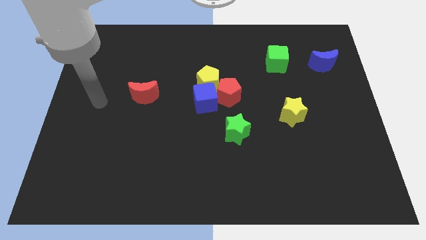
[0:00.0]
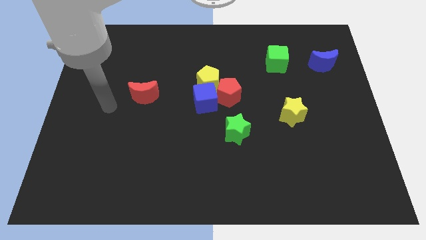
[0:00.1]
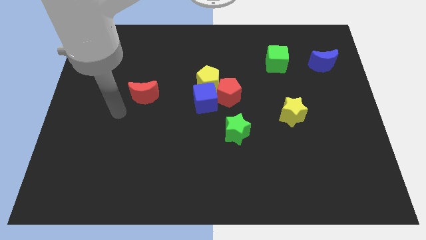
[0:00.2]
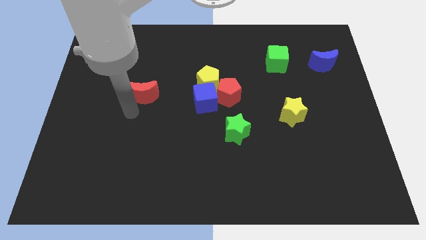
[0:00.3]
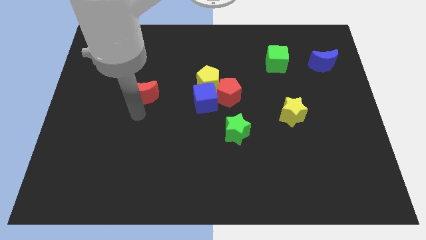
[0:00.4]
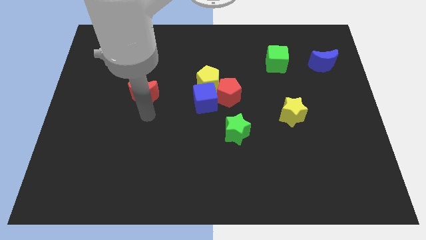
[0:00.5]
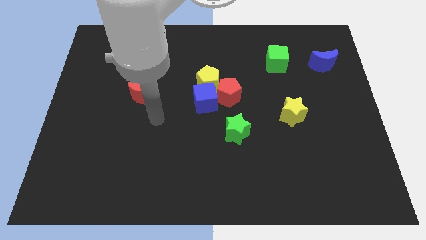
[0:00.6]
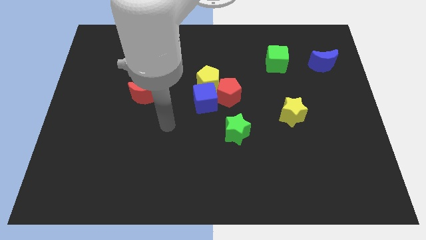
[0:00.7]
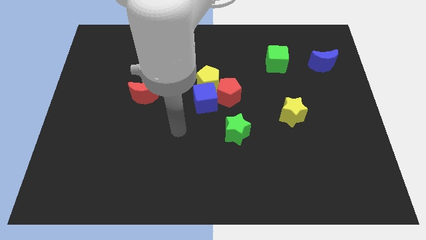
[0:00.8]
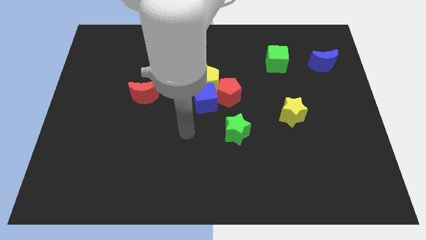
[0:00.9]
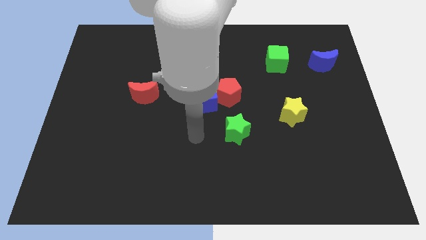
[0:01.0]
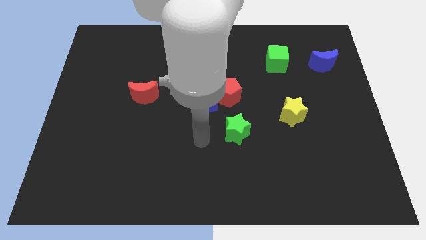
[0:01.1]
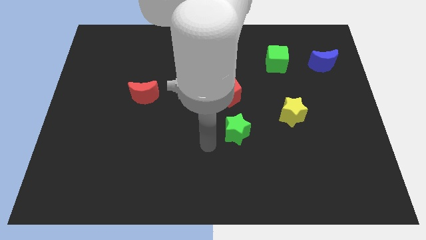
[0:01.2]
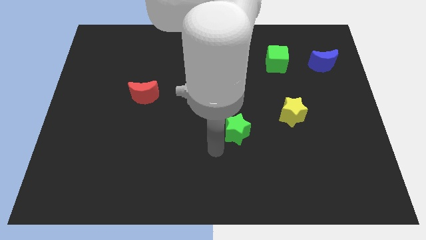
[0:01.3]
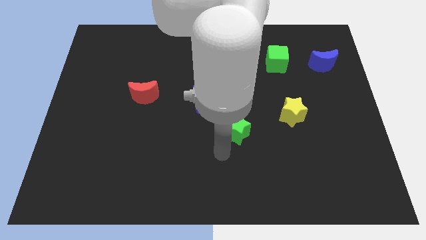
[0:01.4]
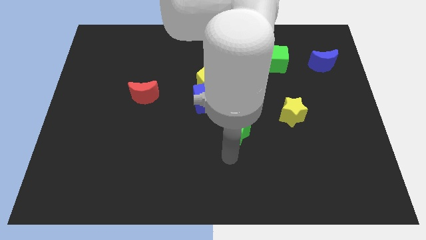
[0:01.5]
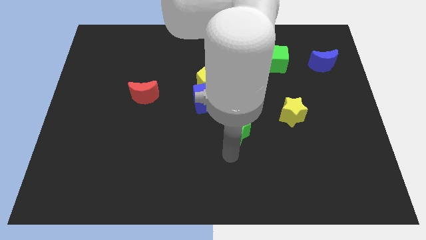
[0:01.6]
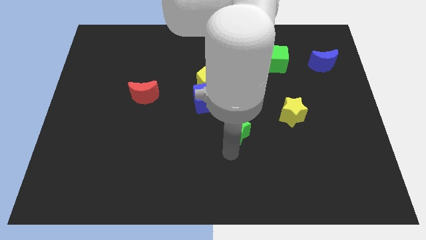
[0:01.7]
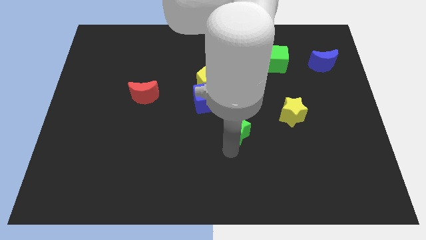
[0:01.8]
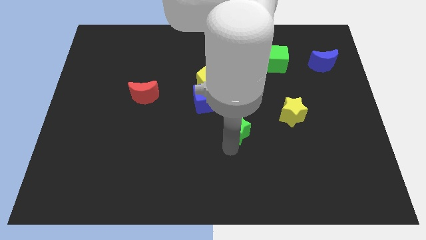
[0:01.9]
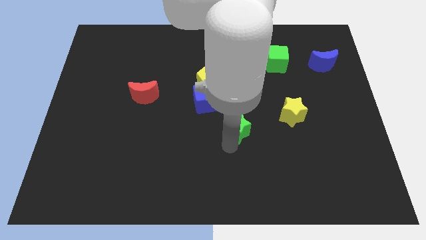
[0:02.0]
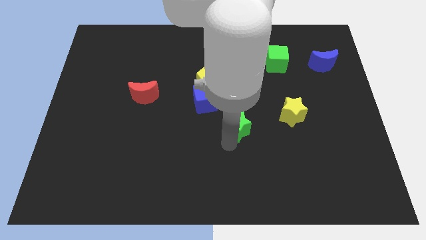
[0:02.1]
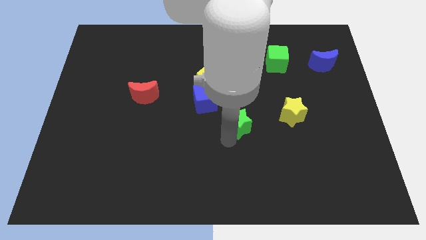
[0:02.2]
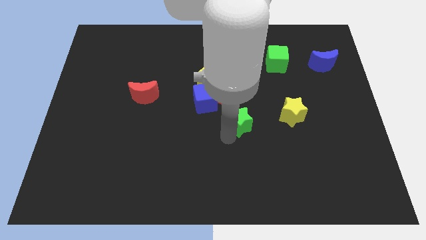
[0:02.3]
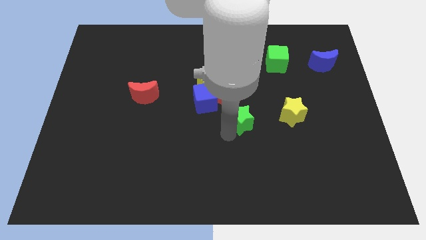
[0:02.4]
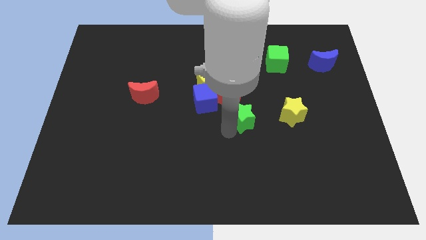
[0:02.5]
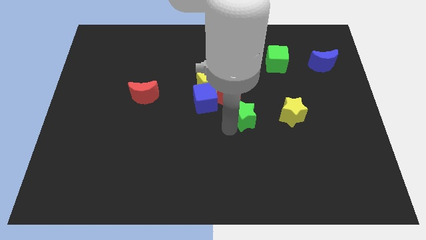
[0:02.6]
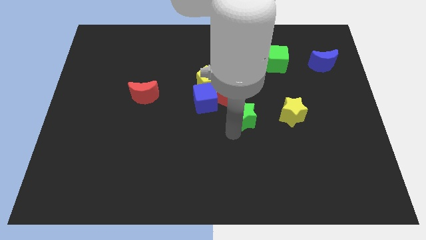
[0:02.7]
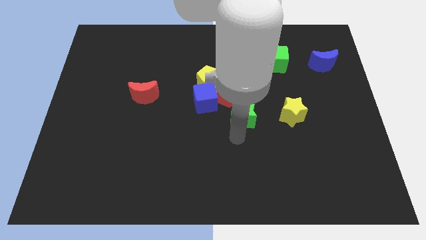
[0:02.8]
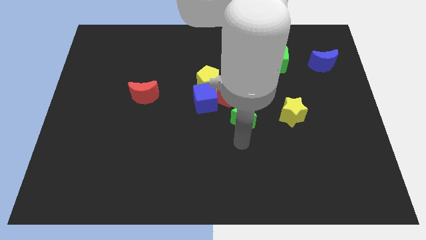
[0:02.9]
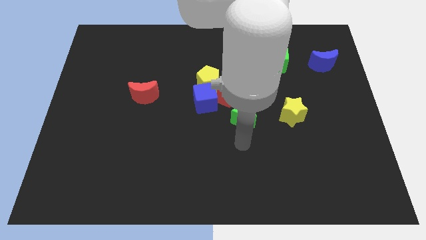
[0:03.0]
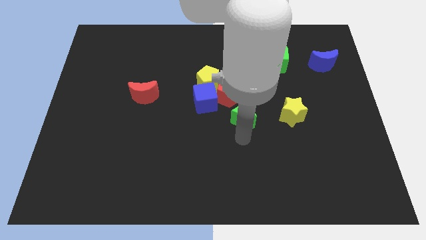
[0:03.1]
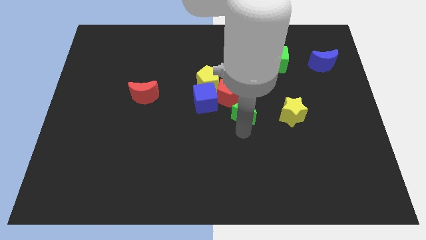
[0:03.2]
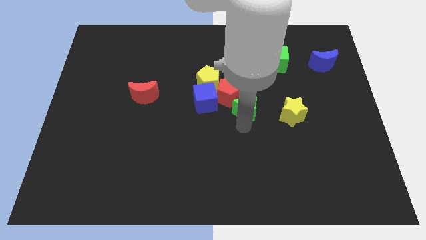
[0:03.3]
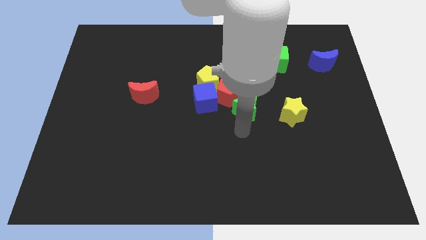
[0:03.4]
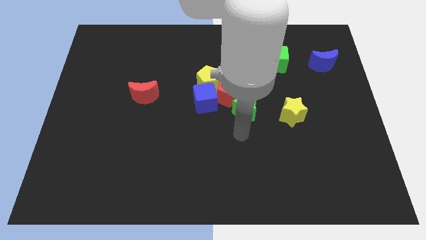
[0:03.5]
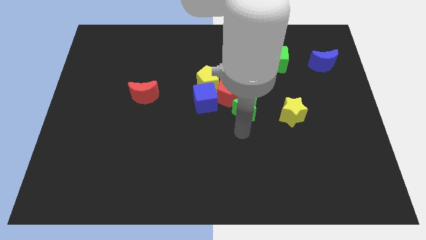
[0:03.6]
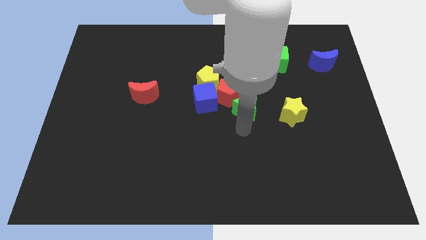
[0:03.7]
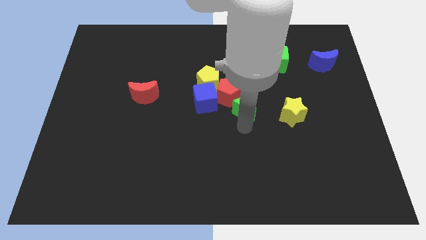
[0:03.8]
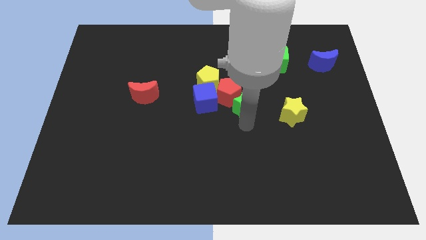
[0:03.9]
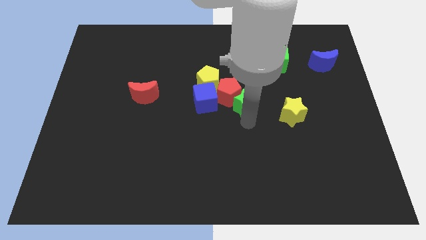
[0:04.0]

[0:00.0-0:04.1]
move the green star somewhat up

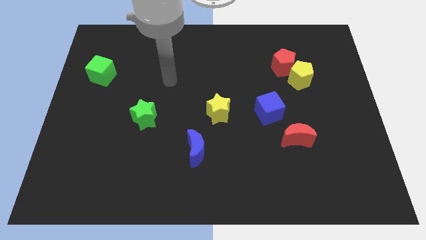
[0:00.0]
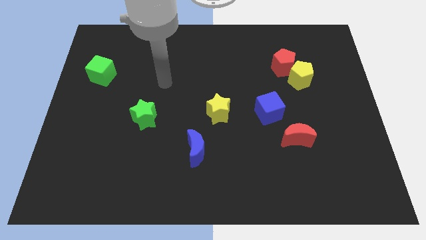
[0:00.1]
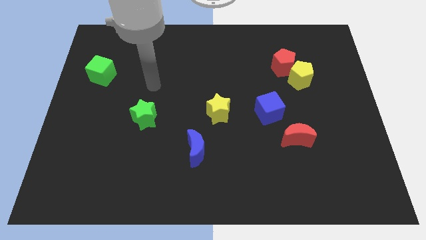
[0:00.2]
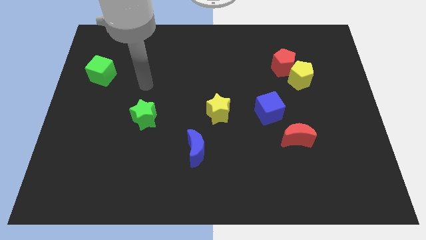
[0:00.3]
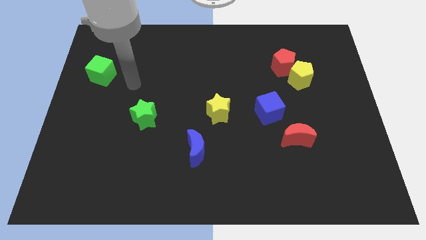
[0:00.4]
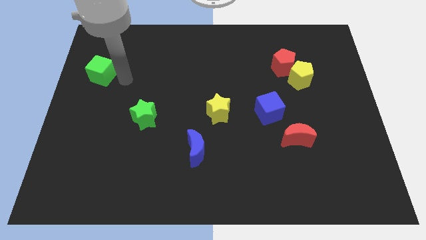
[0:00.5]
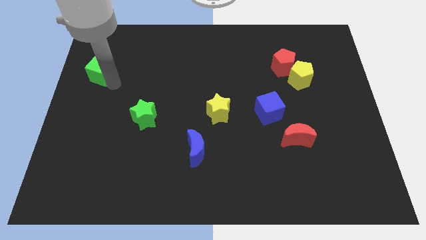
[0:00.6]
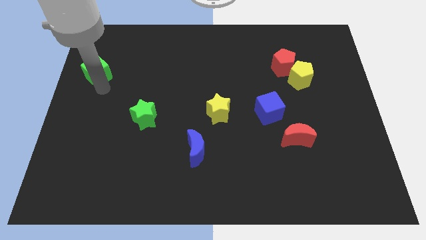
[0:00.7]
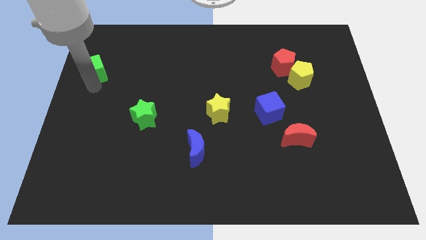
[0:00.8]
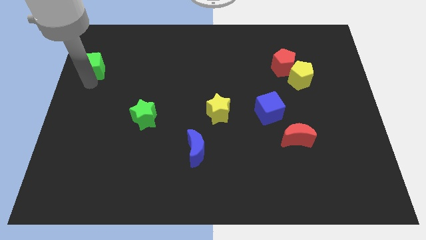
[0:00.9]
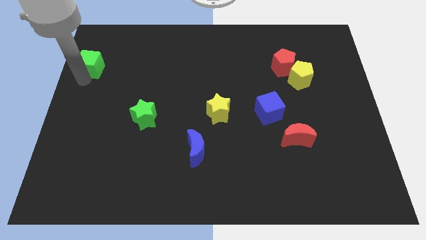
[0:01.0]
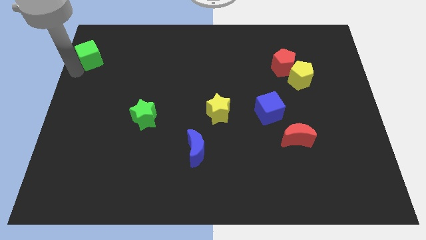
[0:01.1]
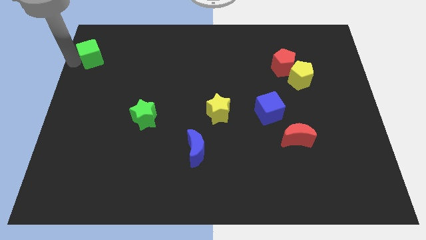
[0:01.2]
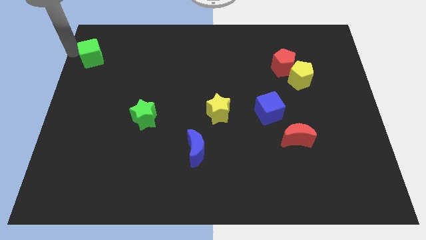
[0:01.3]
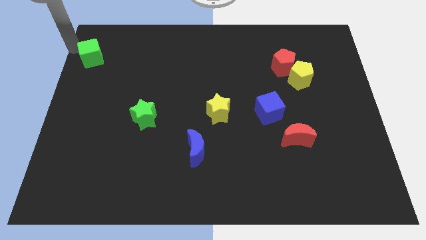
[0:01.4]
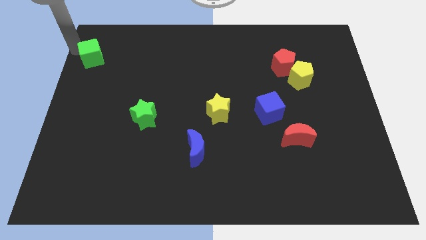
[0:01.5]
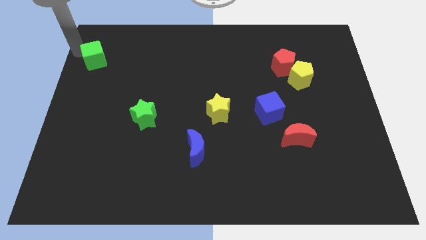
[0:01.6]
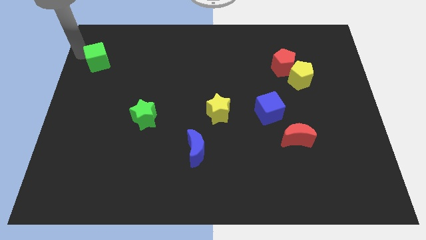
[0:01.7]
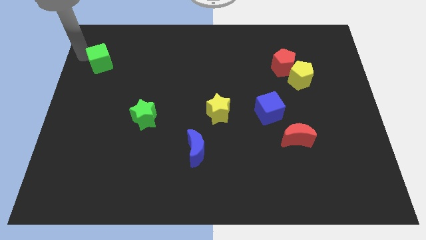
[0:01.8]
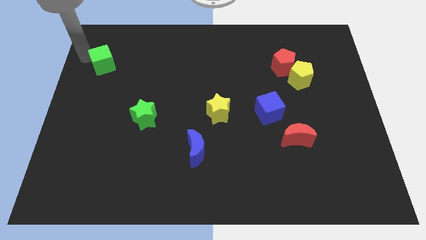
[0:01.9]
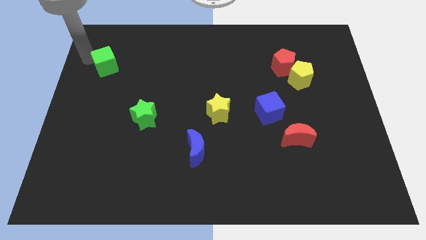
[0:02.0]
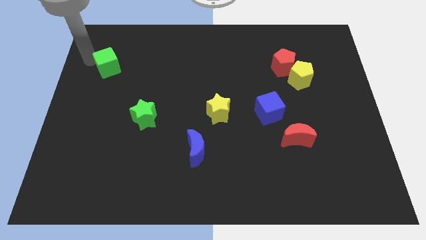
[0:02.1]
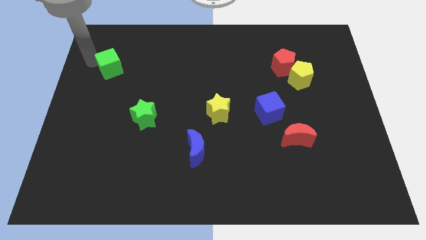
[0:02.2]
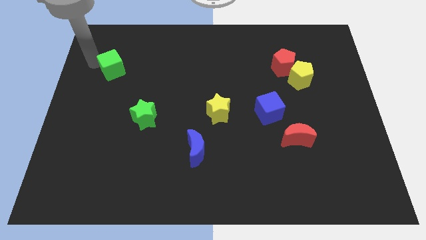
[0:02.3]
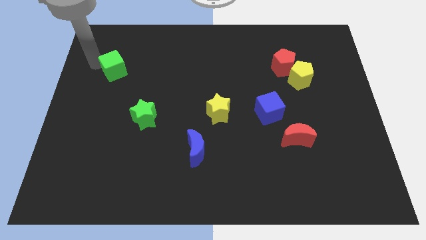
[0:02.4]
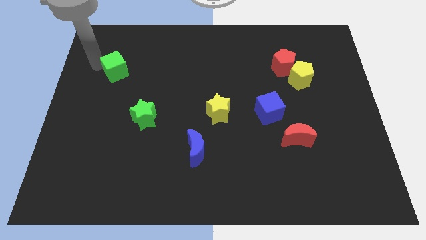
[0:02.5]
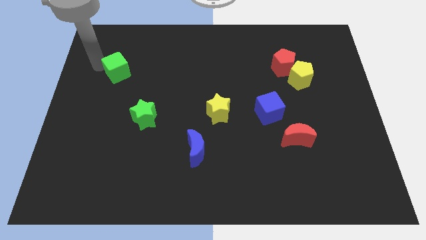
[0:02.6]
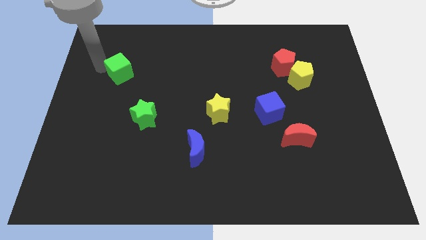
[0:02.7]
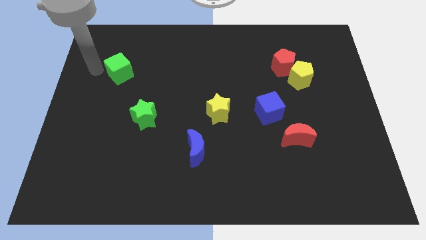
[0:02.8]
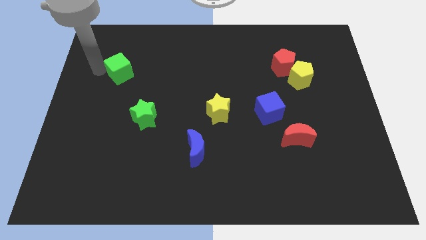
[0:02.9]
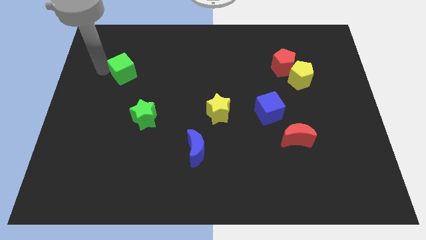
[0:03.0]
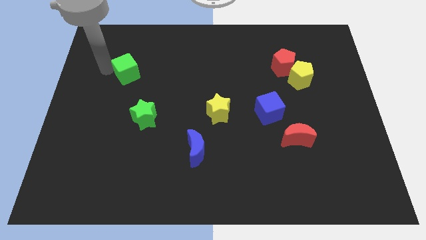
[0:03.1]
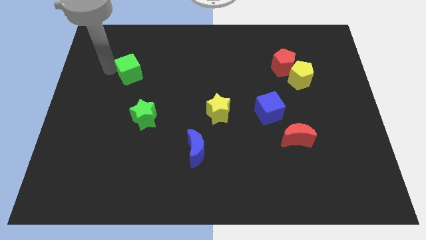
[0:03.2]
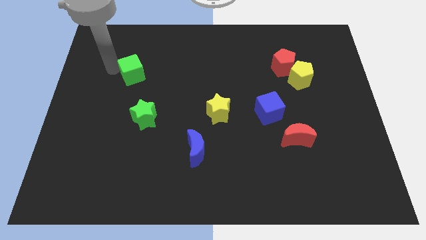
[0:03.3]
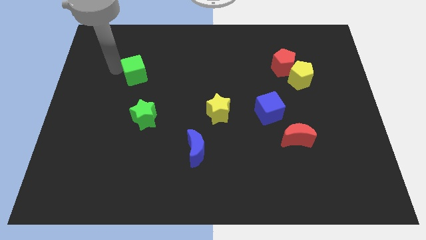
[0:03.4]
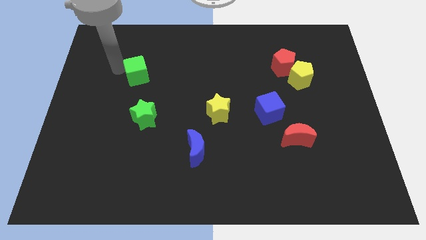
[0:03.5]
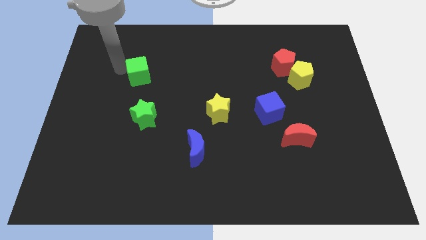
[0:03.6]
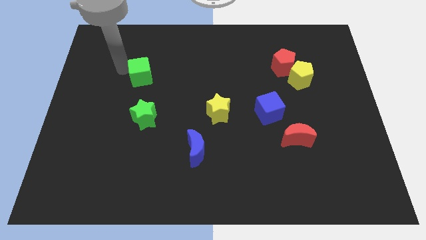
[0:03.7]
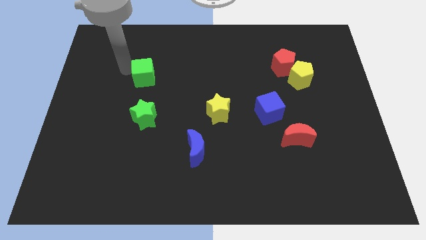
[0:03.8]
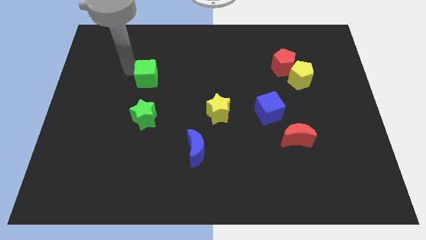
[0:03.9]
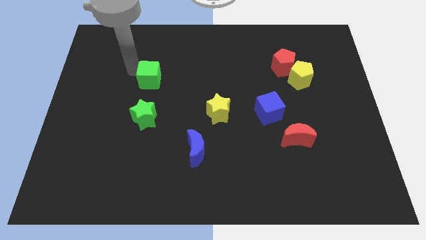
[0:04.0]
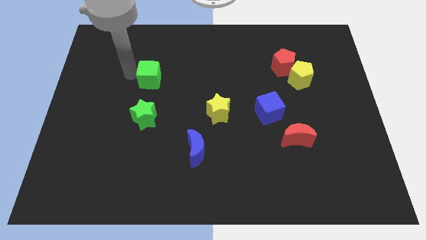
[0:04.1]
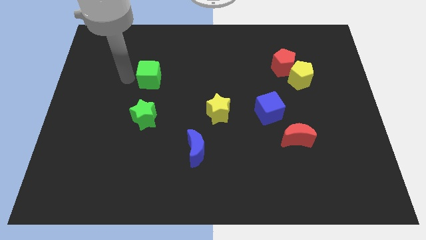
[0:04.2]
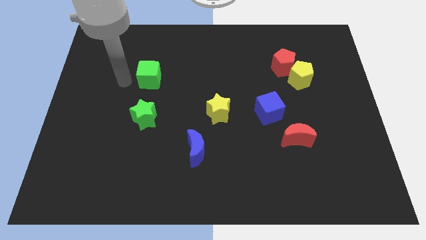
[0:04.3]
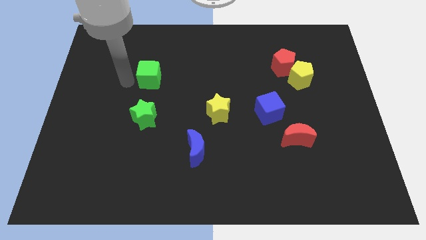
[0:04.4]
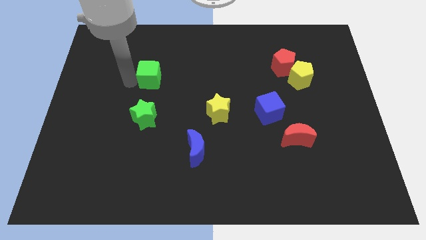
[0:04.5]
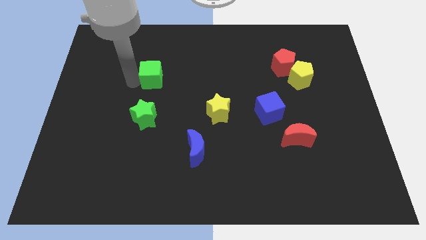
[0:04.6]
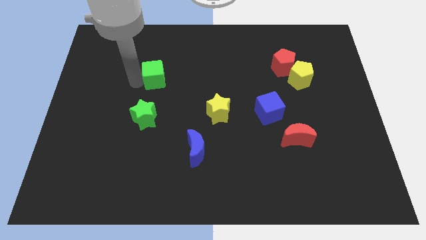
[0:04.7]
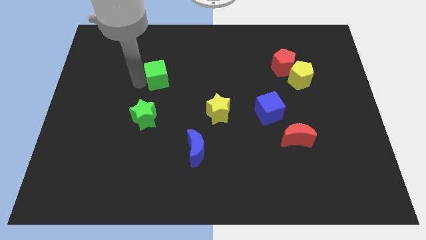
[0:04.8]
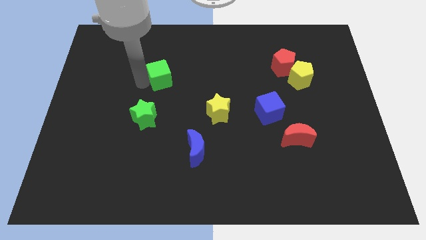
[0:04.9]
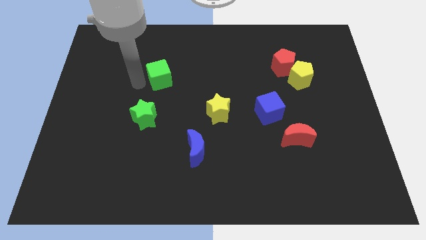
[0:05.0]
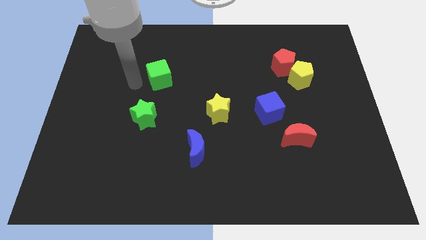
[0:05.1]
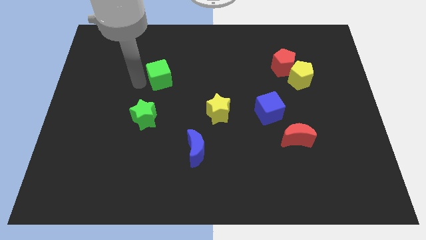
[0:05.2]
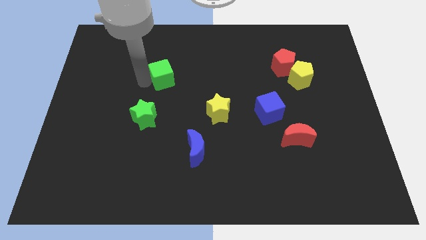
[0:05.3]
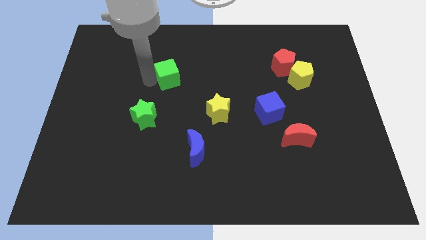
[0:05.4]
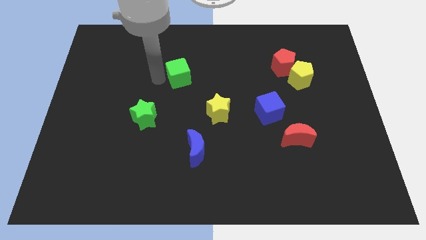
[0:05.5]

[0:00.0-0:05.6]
push the green cube to the right
